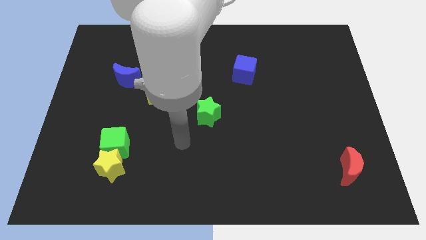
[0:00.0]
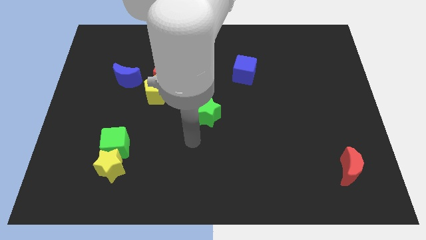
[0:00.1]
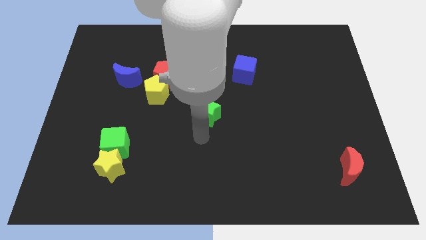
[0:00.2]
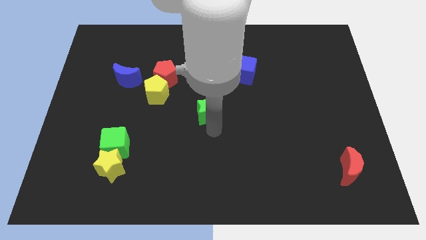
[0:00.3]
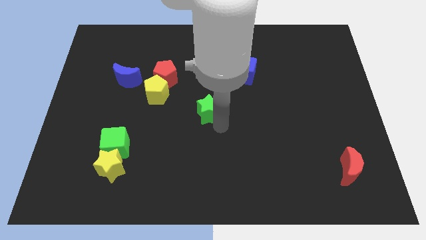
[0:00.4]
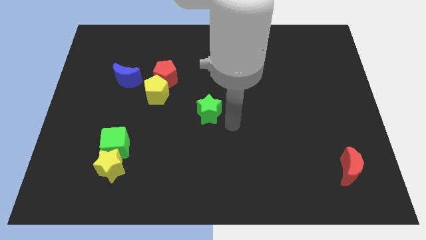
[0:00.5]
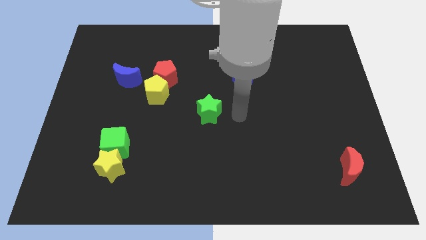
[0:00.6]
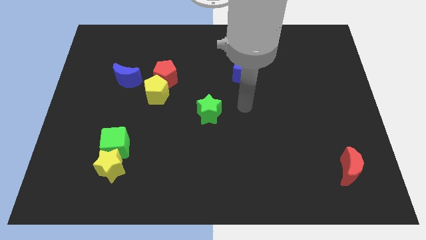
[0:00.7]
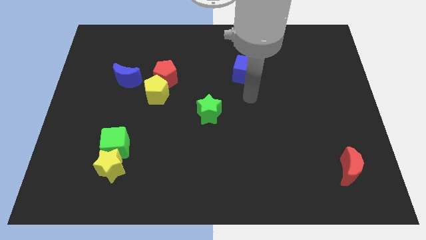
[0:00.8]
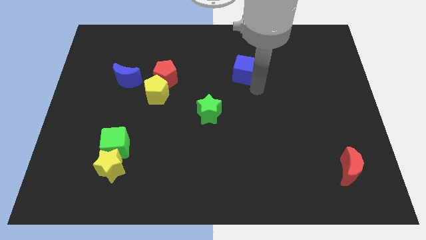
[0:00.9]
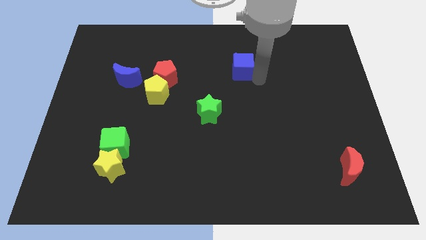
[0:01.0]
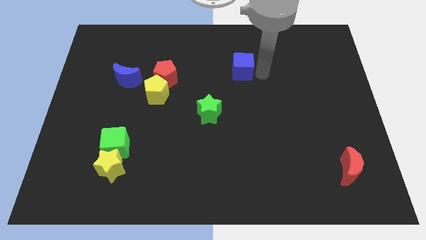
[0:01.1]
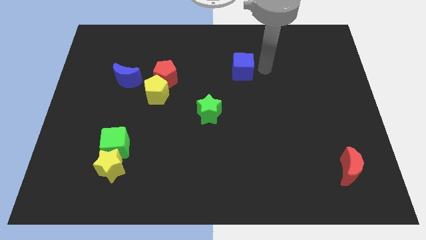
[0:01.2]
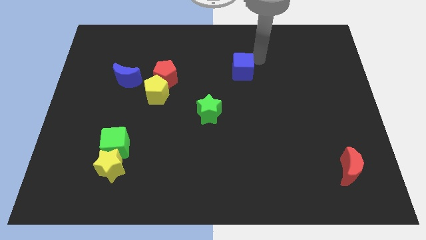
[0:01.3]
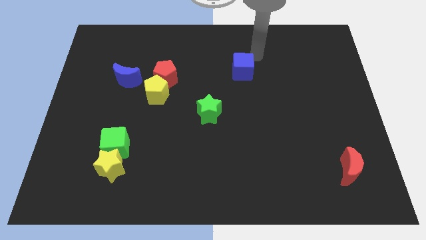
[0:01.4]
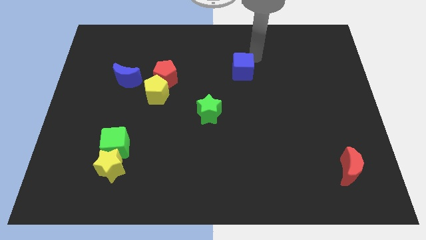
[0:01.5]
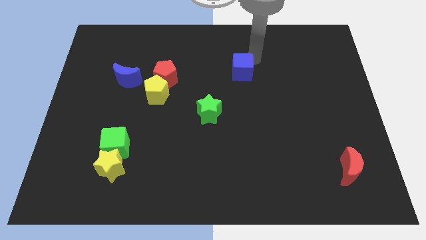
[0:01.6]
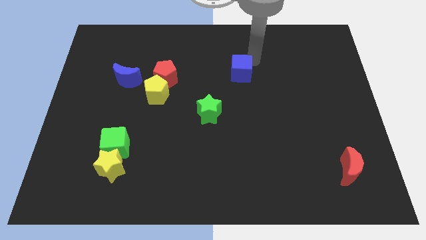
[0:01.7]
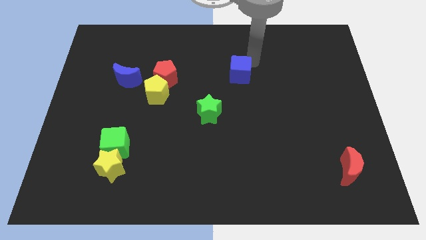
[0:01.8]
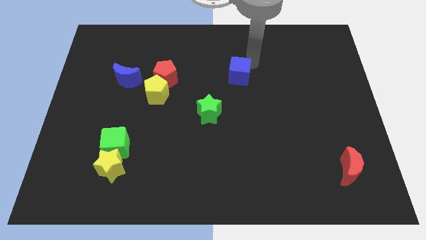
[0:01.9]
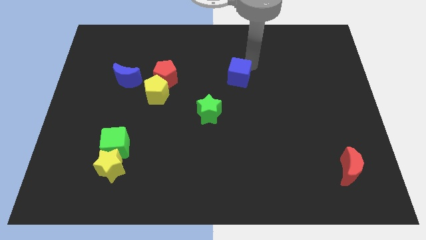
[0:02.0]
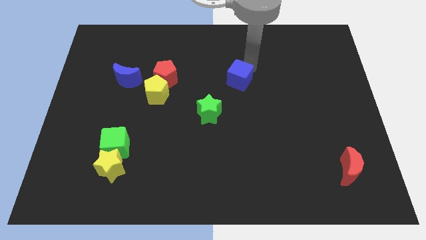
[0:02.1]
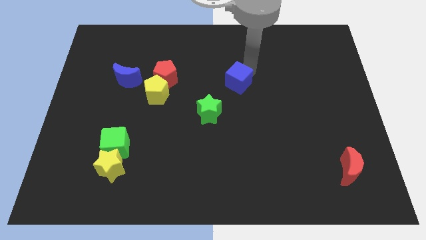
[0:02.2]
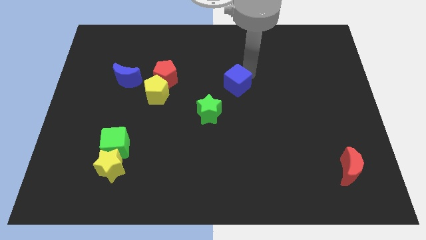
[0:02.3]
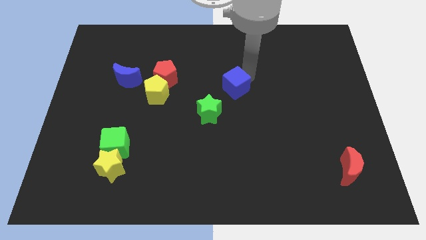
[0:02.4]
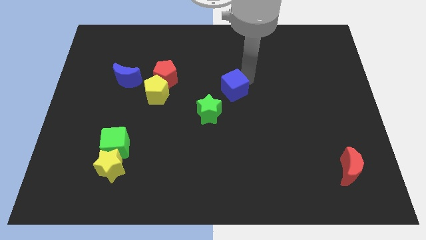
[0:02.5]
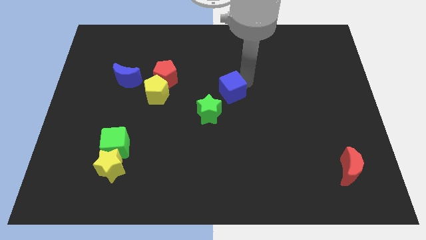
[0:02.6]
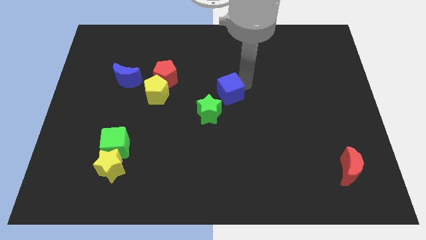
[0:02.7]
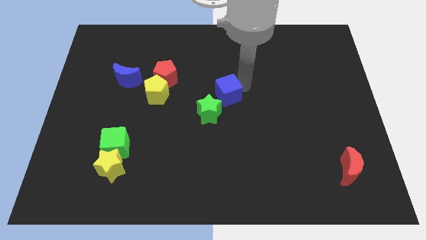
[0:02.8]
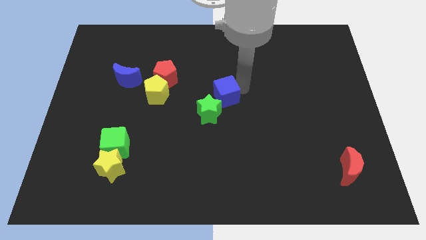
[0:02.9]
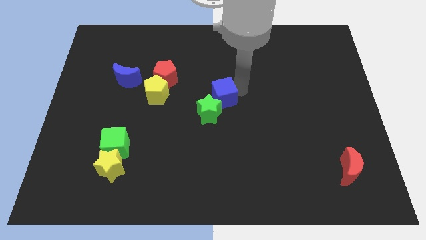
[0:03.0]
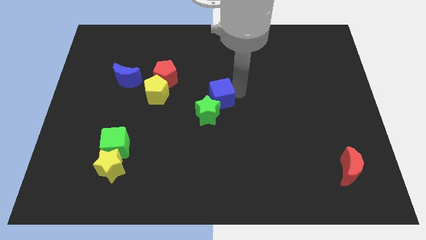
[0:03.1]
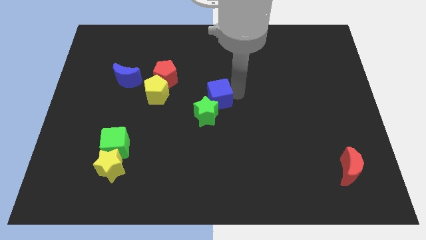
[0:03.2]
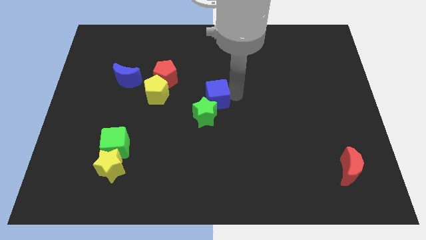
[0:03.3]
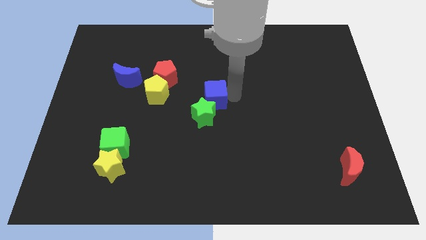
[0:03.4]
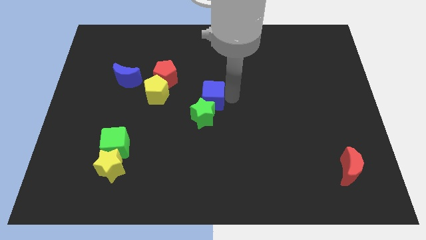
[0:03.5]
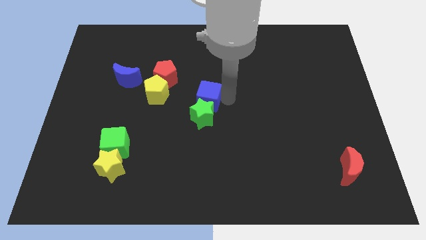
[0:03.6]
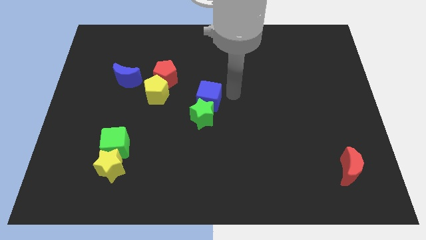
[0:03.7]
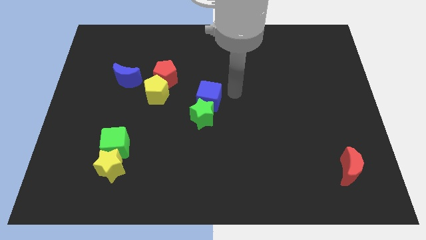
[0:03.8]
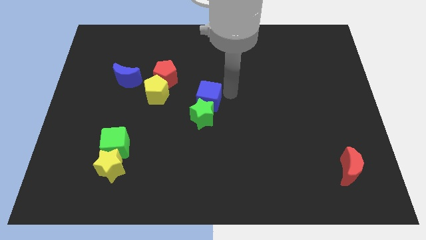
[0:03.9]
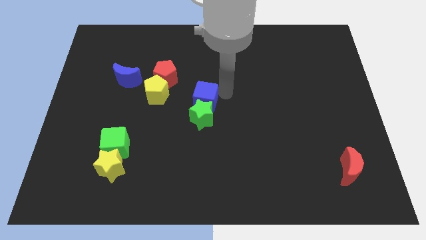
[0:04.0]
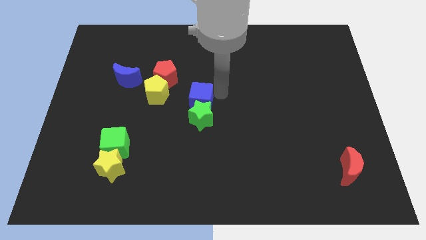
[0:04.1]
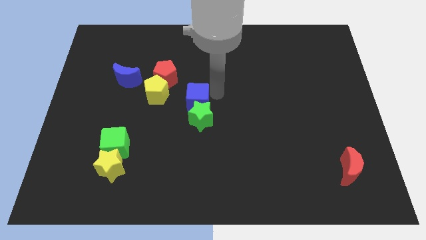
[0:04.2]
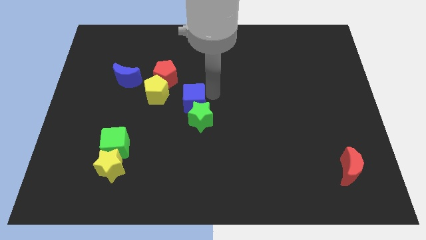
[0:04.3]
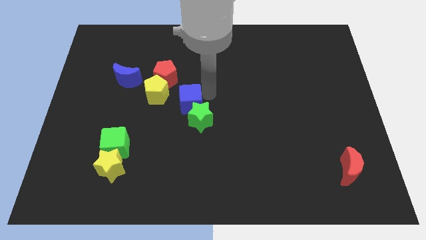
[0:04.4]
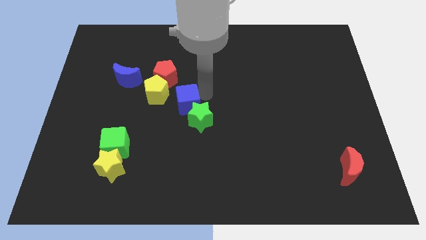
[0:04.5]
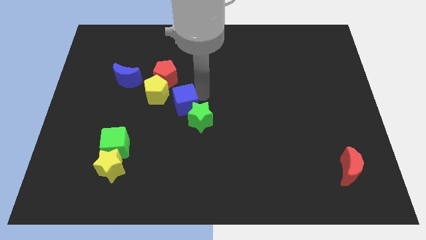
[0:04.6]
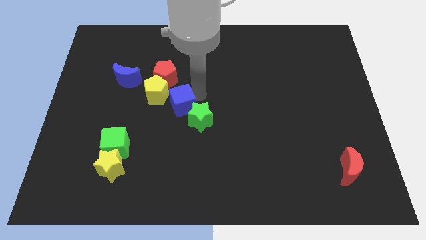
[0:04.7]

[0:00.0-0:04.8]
move the blue cube to the bottom of the red pentagon

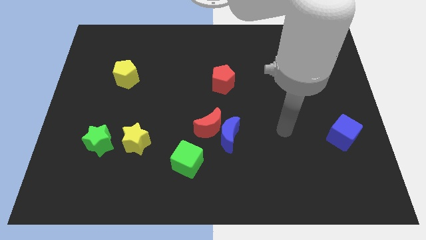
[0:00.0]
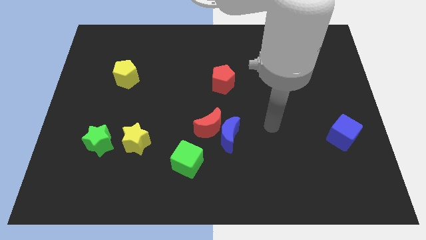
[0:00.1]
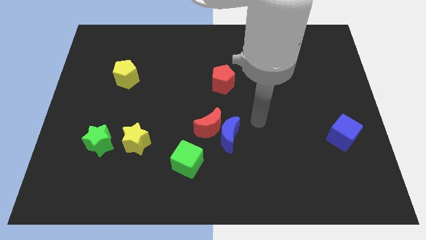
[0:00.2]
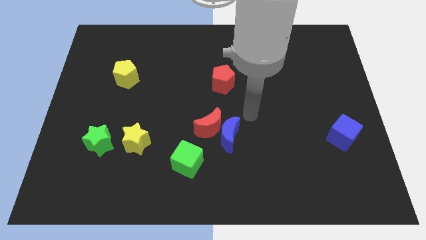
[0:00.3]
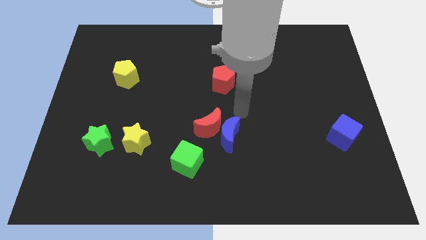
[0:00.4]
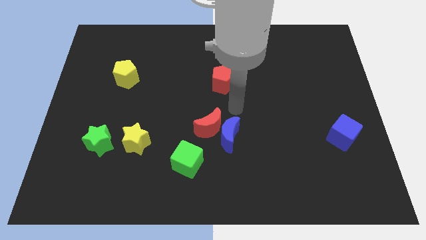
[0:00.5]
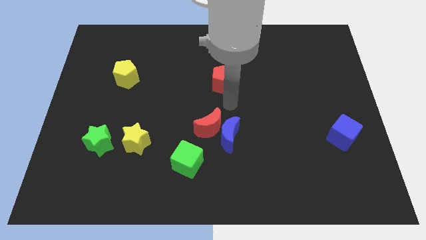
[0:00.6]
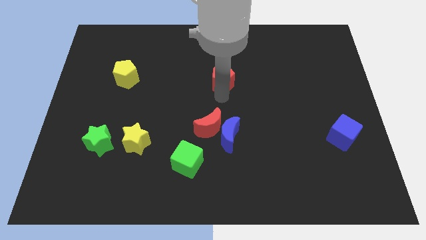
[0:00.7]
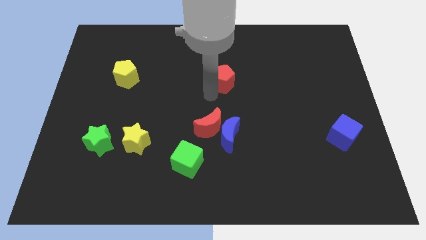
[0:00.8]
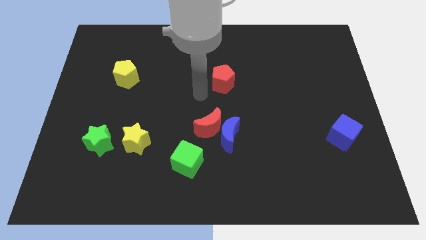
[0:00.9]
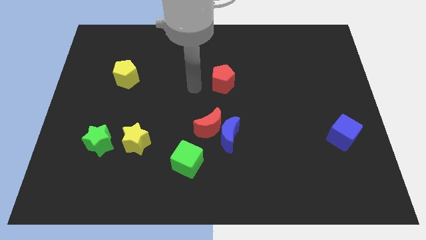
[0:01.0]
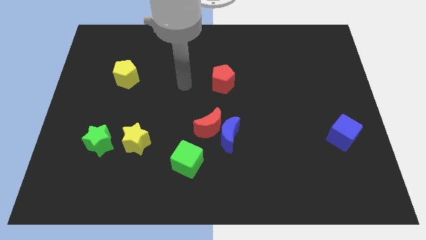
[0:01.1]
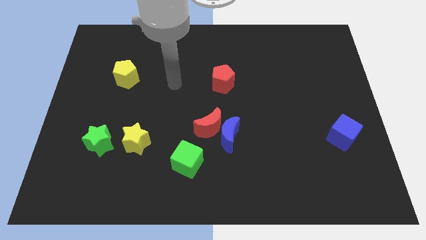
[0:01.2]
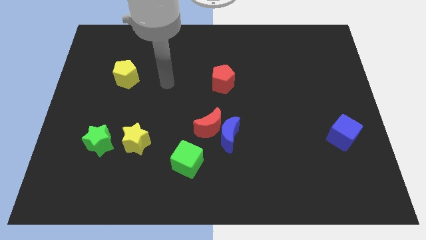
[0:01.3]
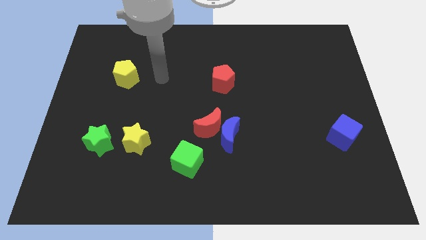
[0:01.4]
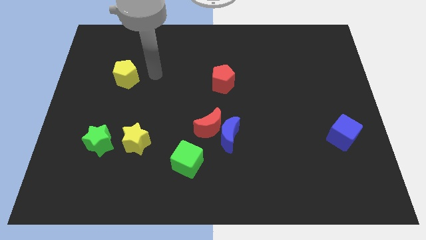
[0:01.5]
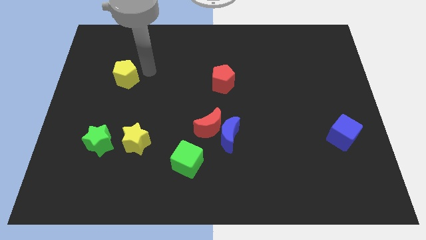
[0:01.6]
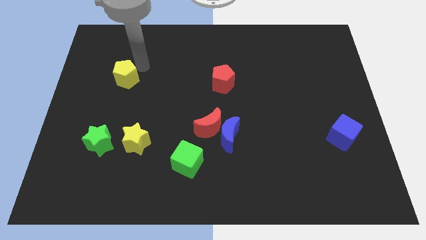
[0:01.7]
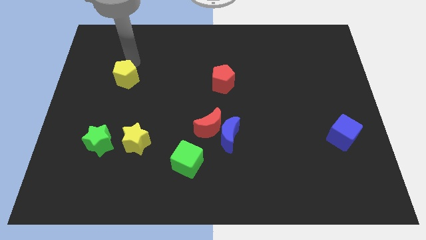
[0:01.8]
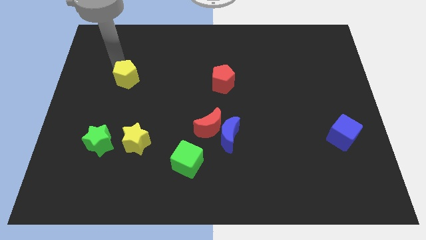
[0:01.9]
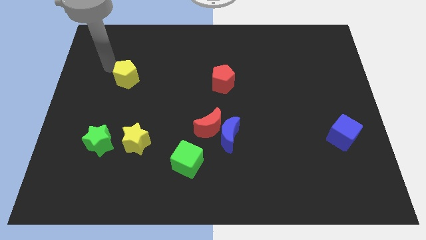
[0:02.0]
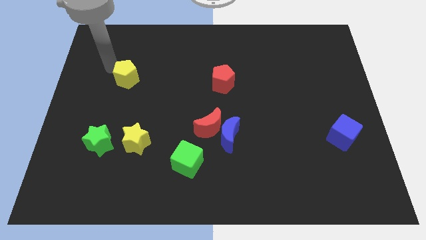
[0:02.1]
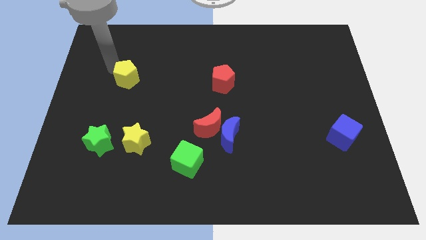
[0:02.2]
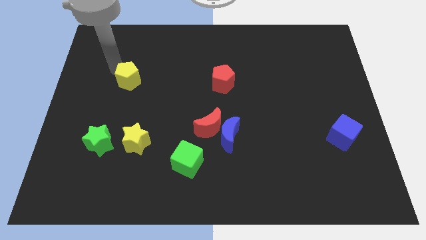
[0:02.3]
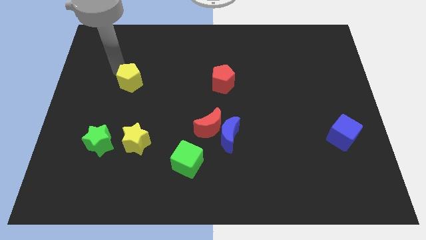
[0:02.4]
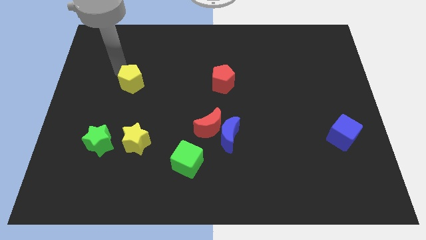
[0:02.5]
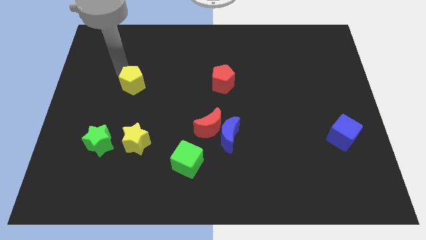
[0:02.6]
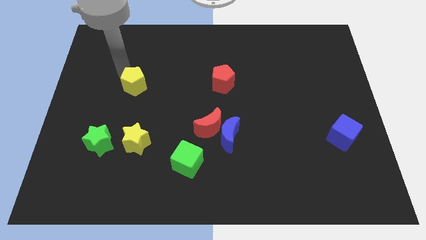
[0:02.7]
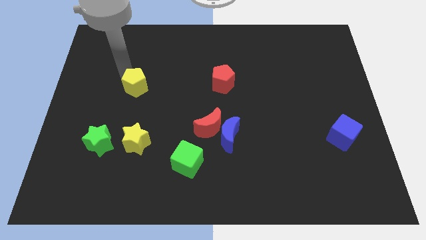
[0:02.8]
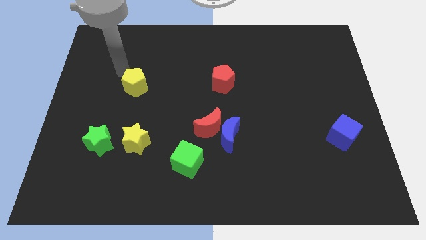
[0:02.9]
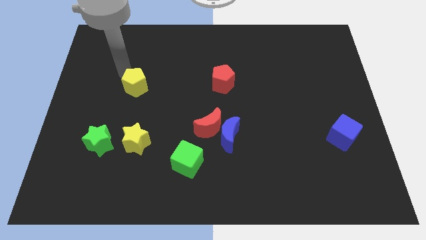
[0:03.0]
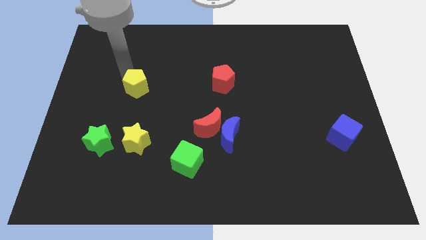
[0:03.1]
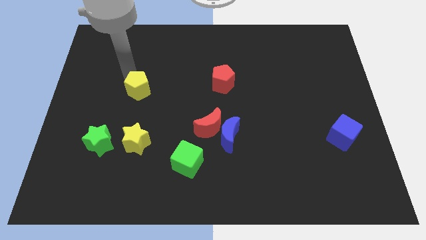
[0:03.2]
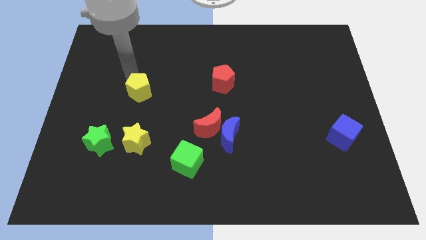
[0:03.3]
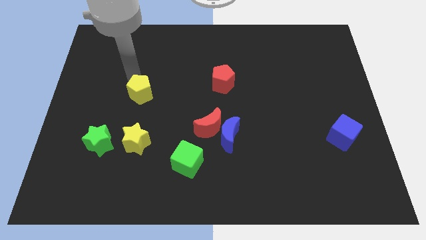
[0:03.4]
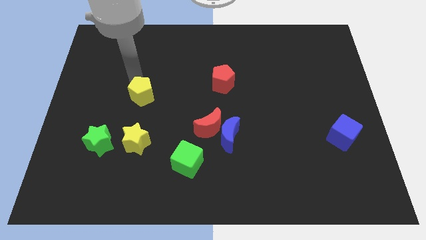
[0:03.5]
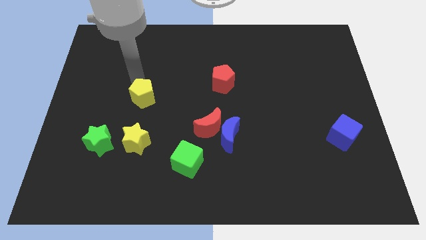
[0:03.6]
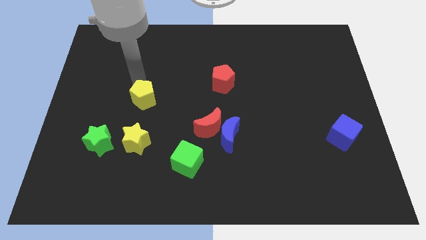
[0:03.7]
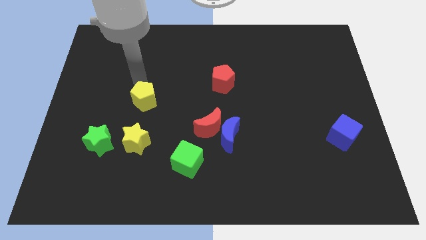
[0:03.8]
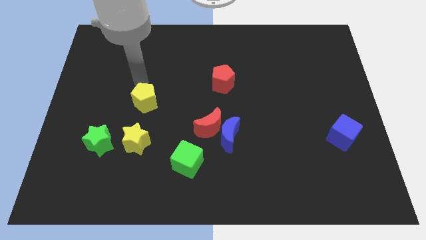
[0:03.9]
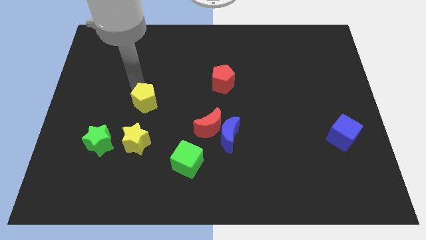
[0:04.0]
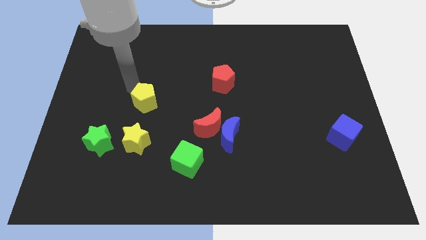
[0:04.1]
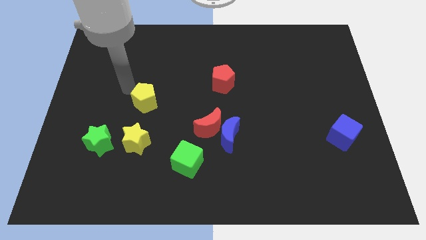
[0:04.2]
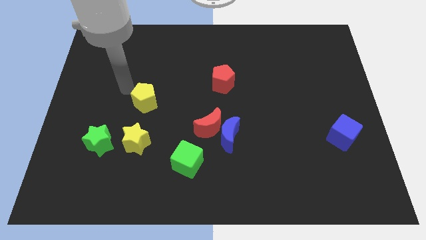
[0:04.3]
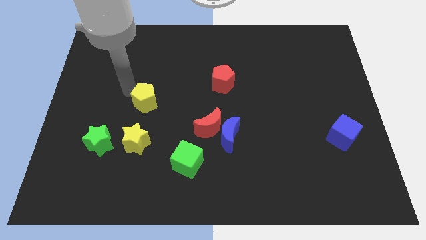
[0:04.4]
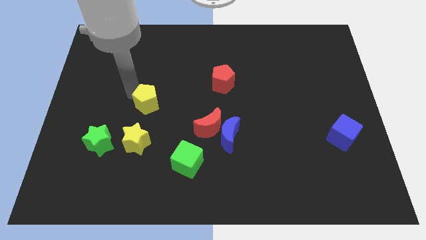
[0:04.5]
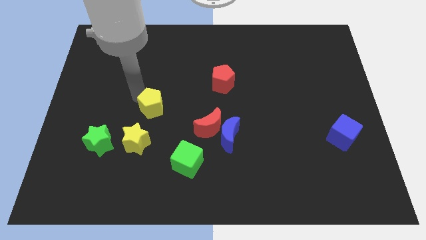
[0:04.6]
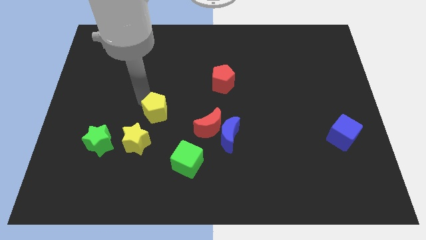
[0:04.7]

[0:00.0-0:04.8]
slide the yellow pentagon diagonally up and to the right of the yellow star
